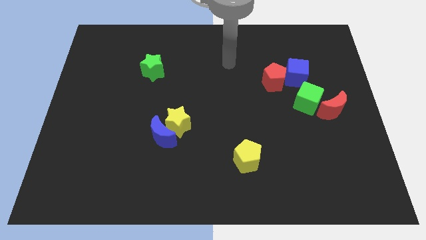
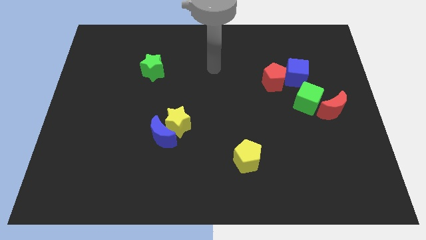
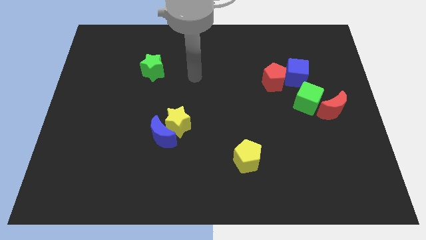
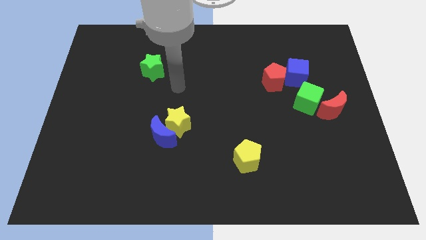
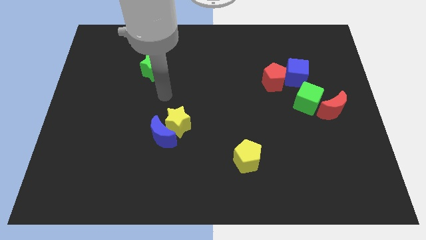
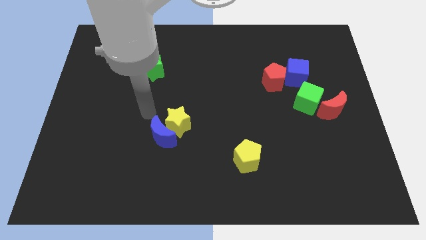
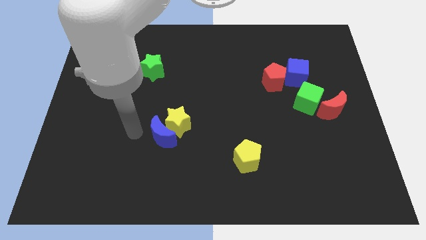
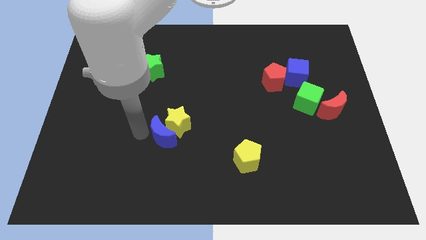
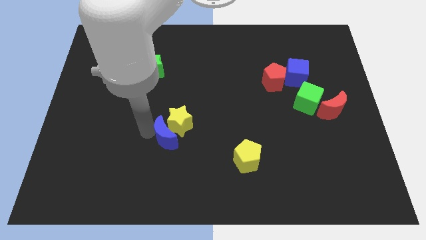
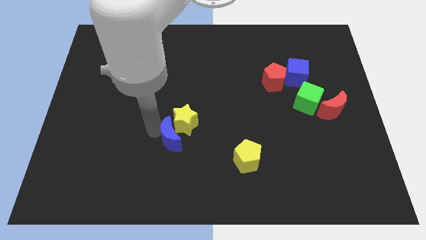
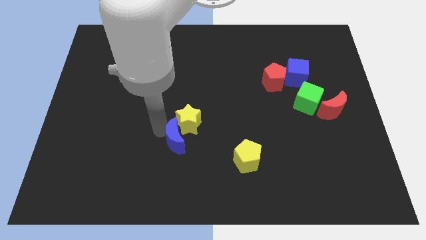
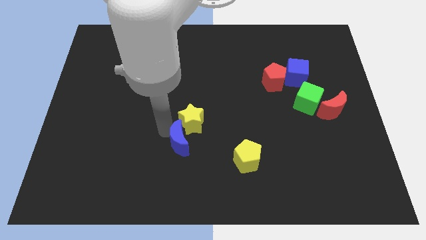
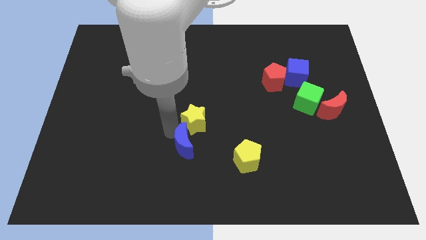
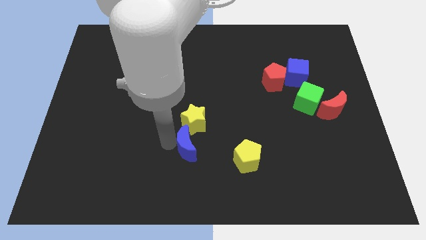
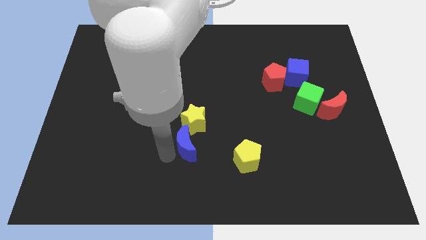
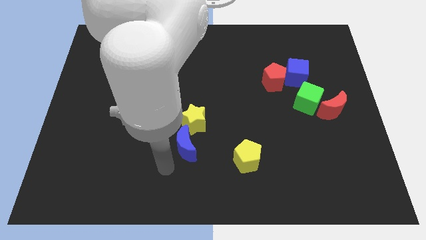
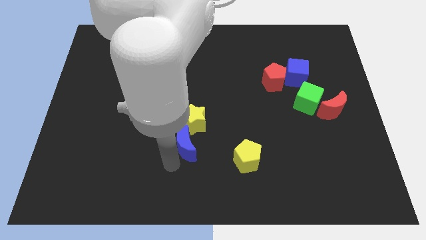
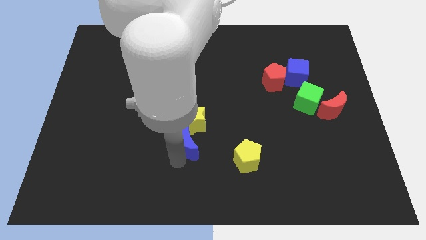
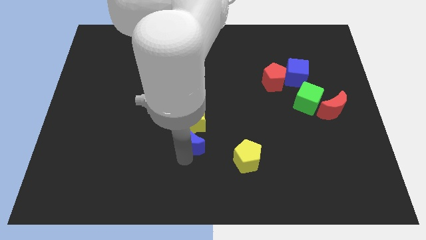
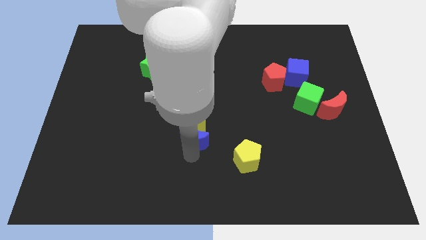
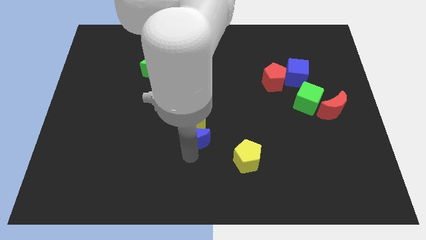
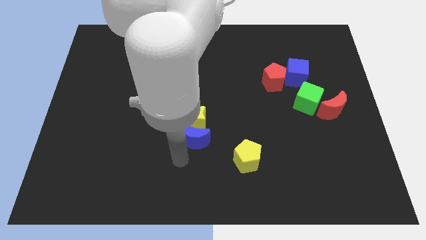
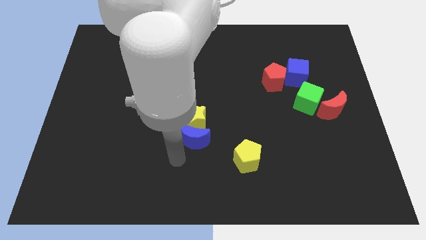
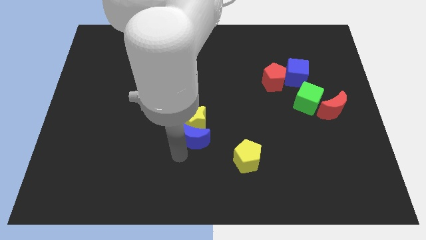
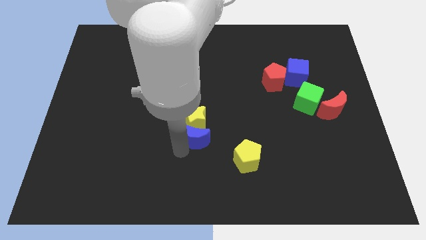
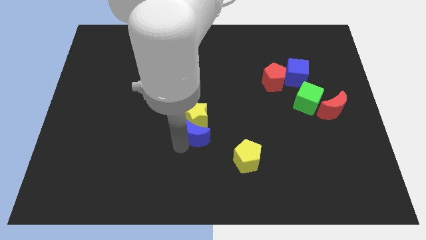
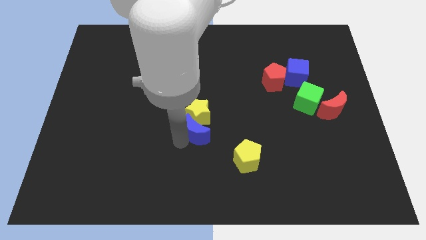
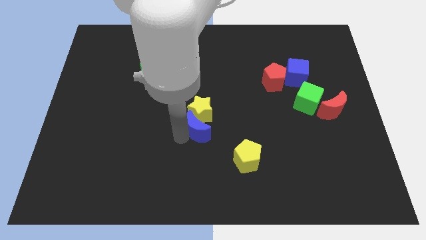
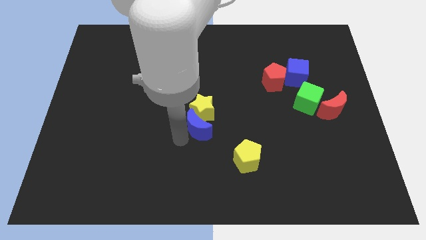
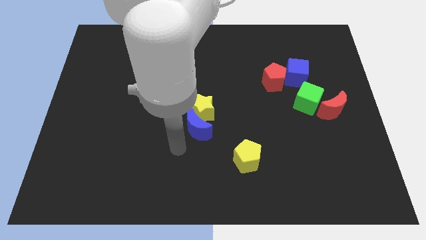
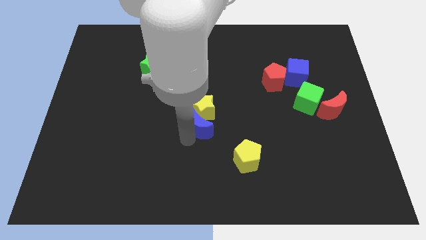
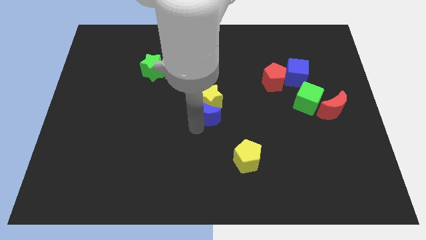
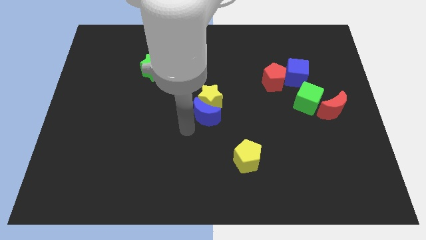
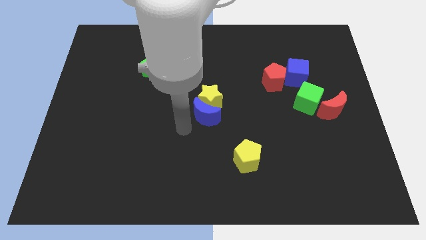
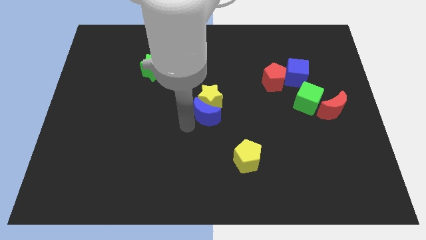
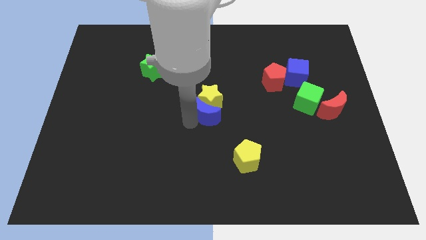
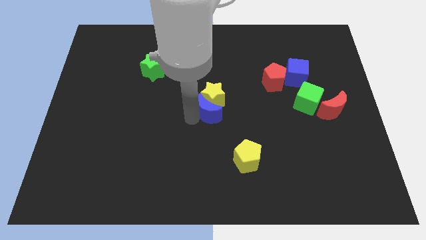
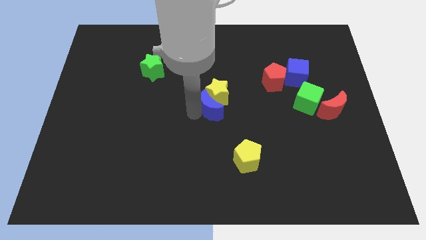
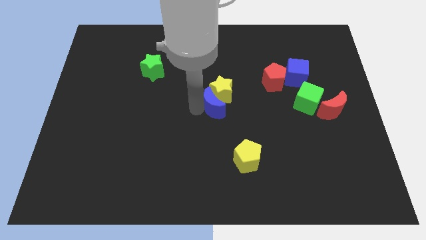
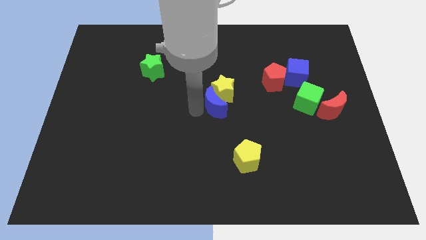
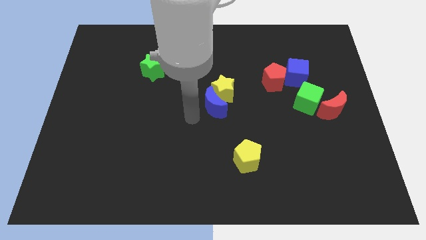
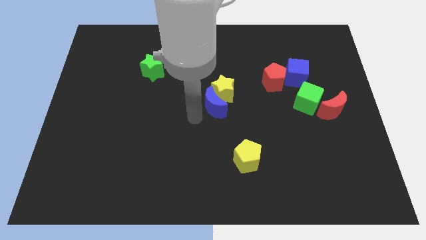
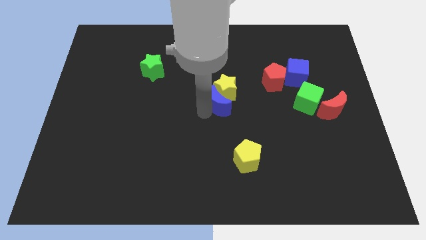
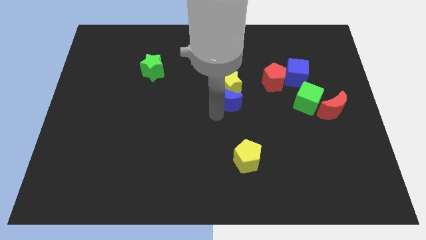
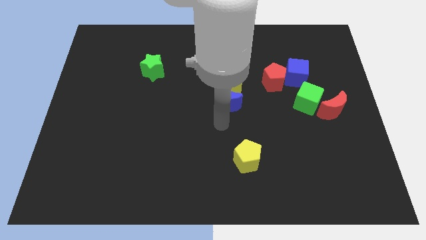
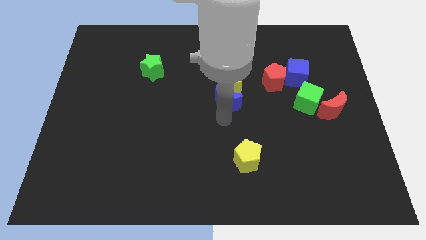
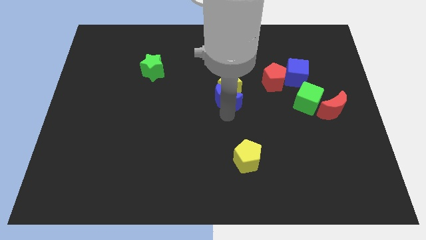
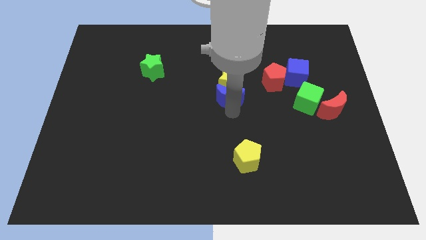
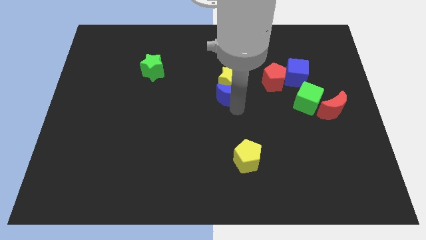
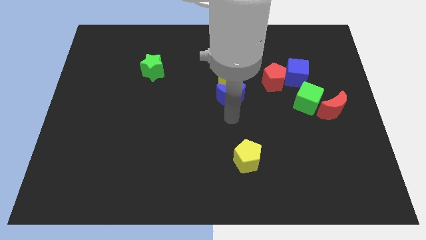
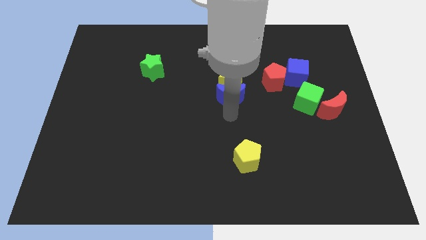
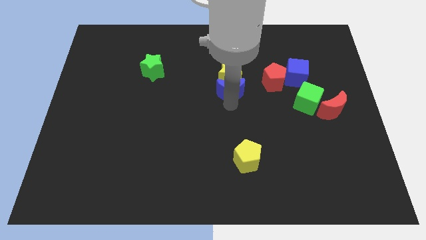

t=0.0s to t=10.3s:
push the blue moon upwards and to the right diagonally

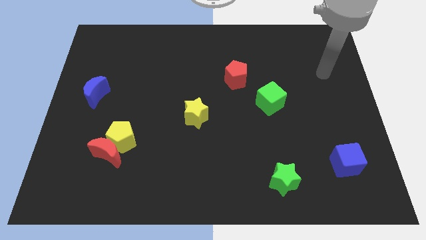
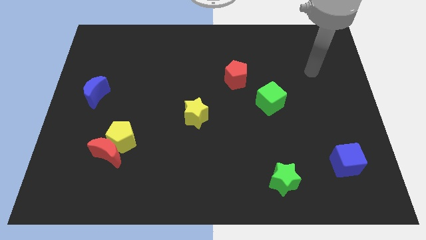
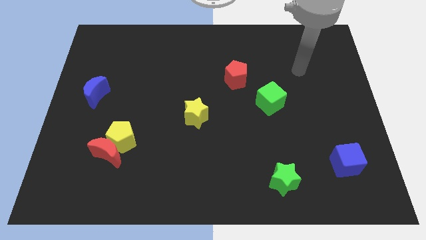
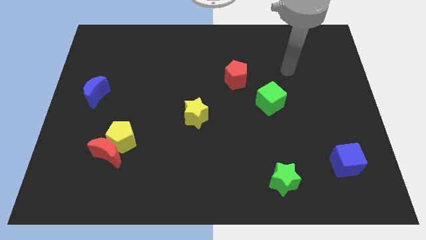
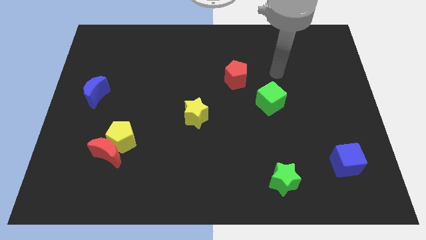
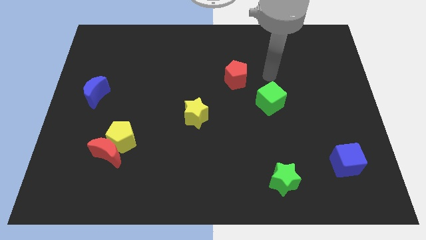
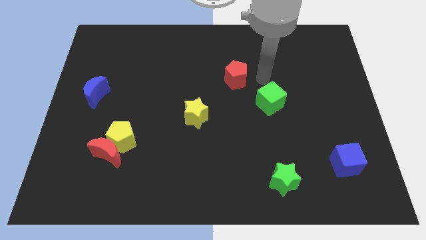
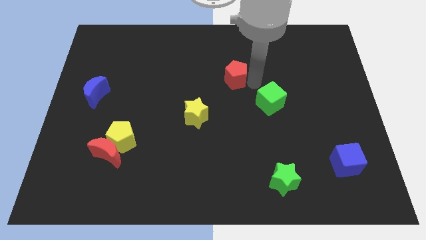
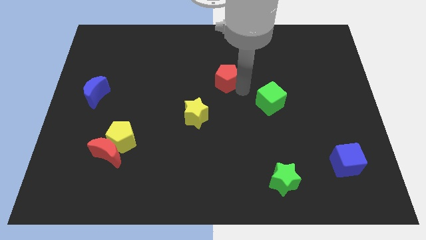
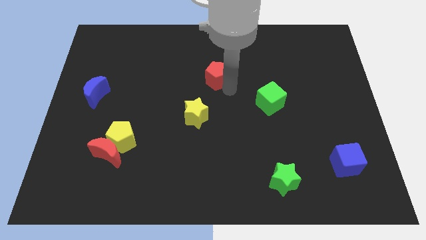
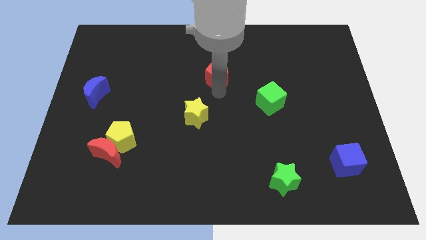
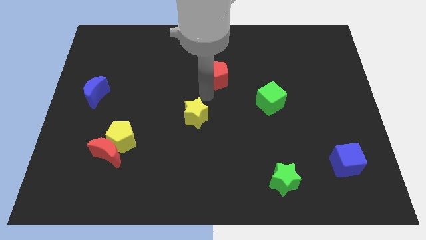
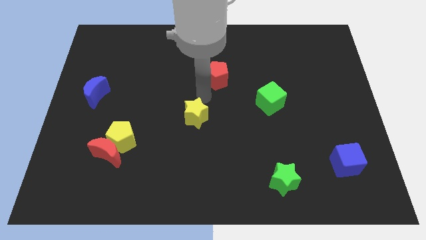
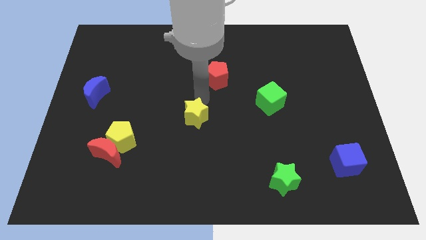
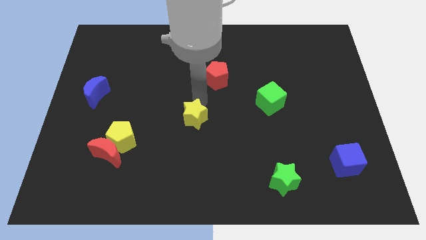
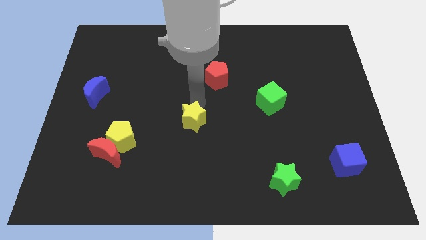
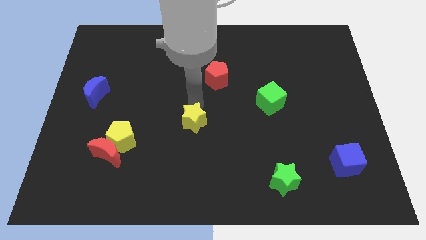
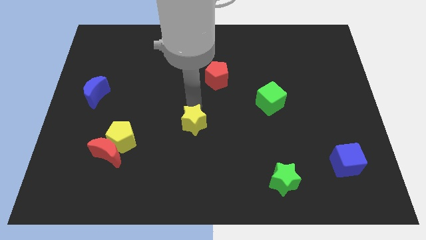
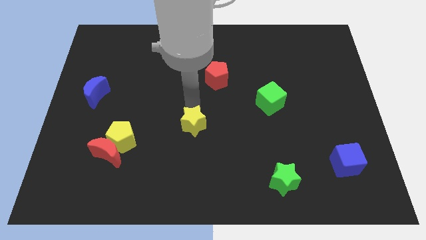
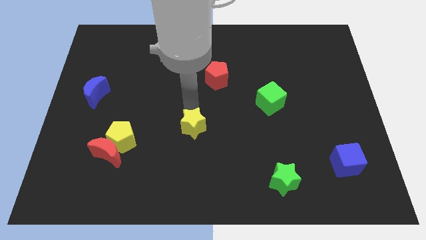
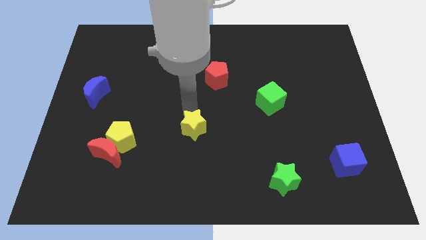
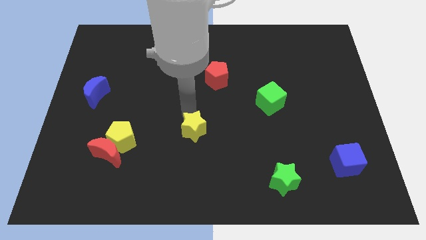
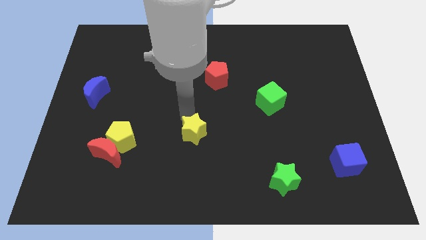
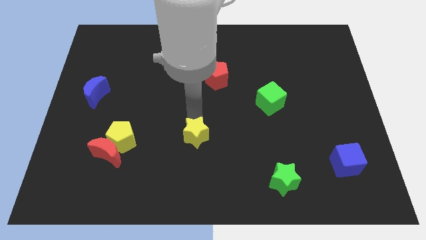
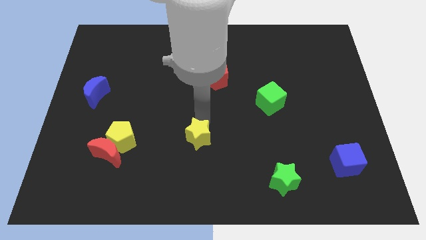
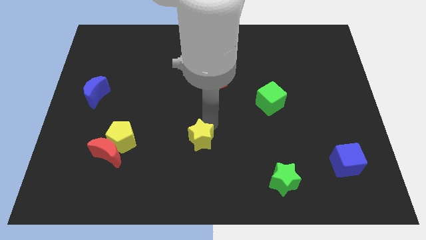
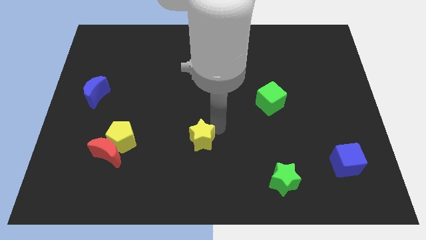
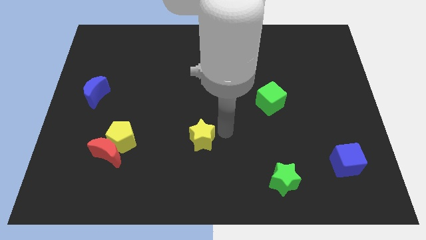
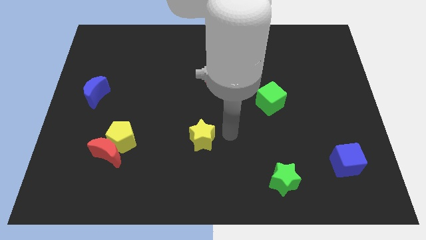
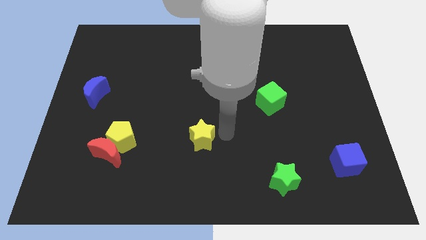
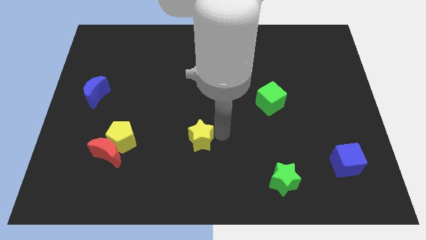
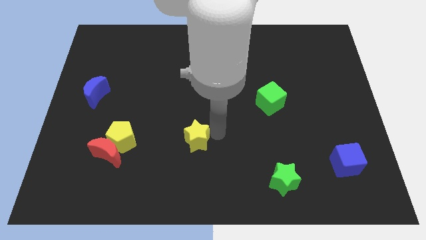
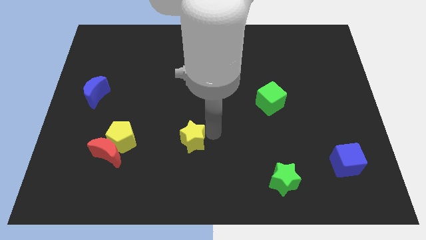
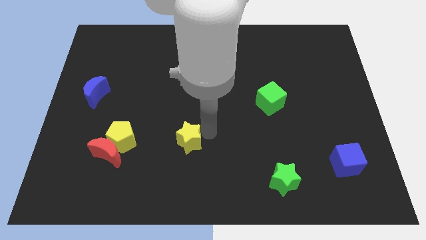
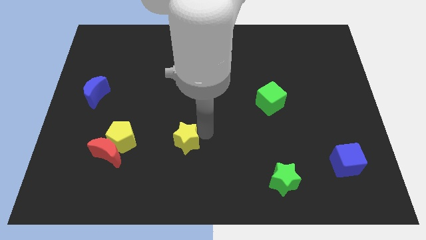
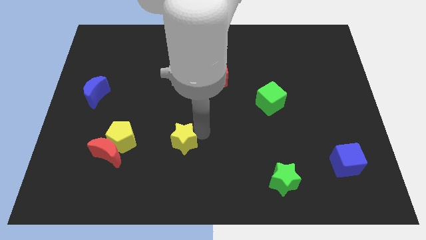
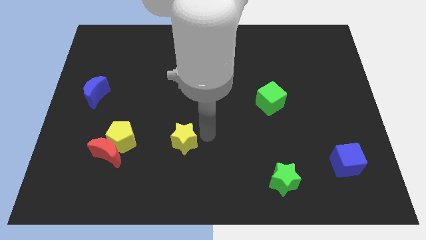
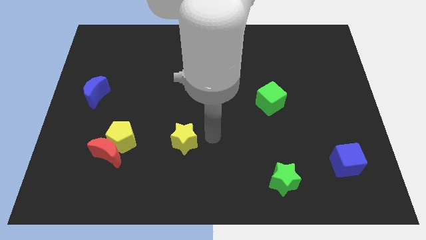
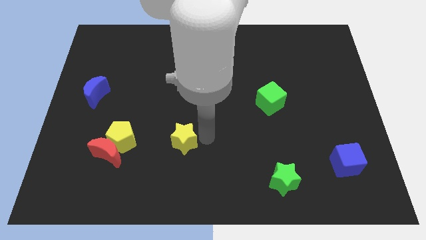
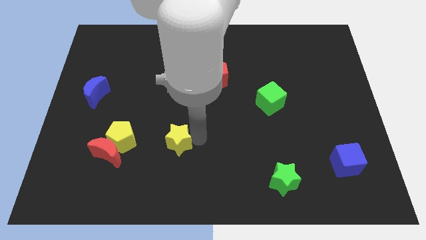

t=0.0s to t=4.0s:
push the yellow star diagonally downwards and to the left a little bit
